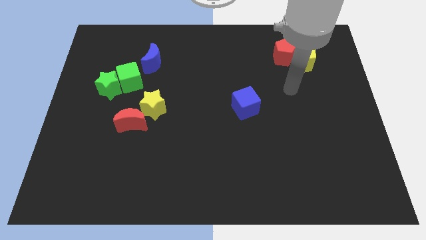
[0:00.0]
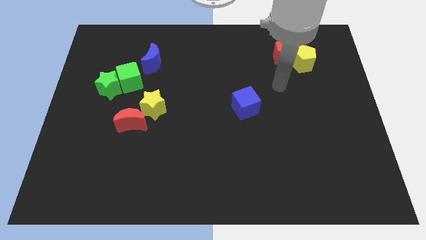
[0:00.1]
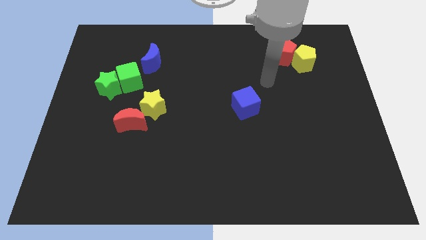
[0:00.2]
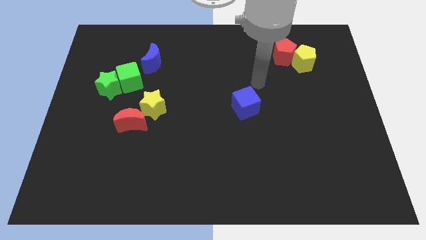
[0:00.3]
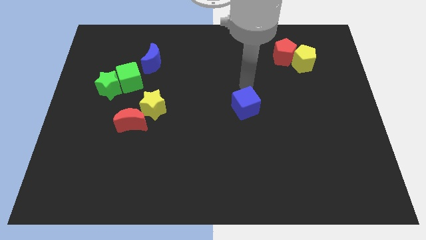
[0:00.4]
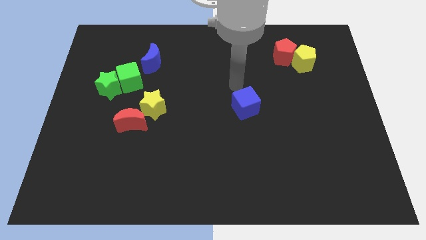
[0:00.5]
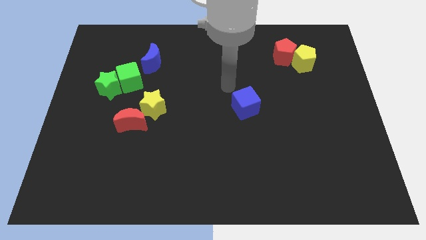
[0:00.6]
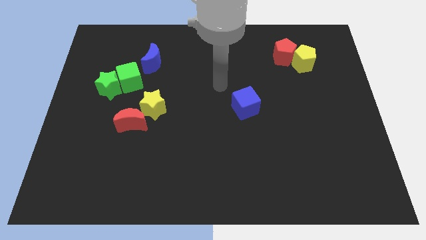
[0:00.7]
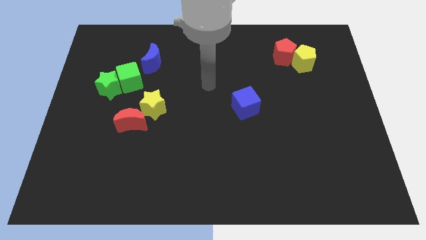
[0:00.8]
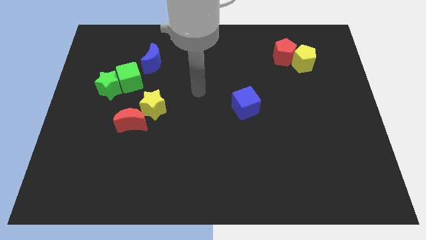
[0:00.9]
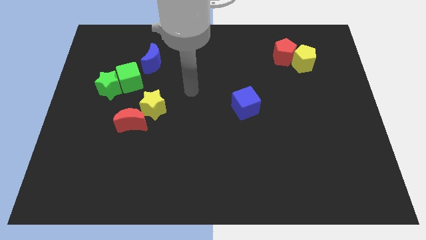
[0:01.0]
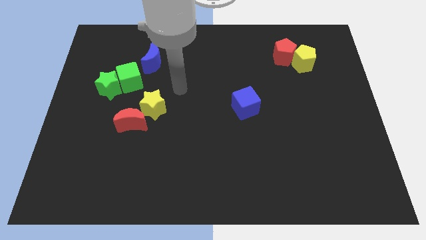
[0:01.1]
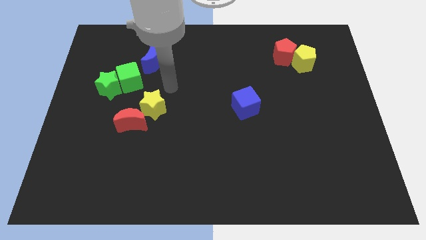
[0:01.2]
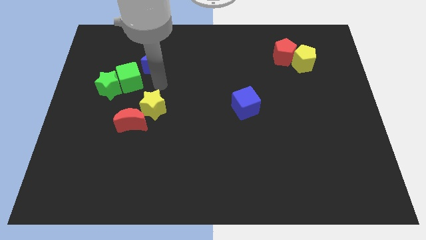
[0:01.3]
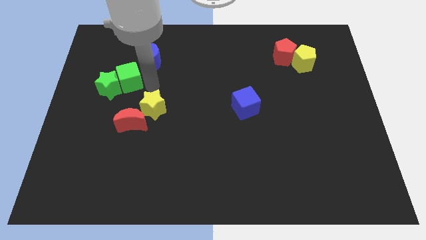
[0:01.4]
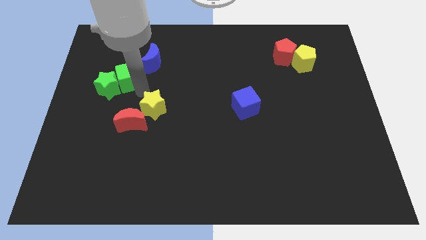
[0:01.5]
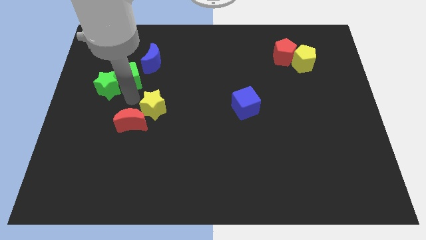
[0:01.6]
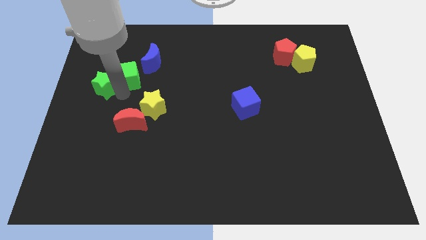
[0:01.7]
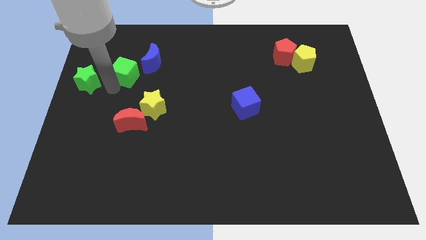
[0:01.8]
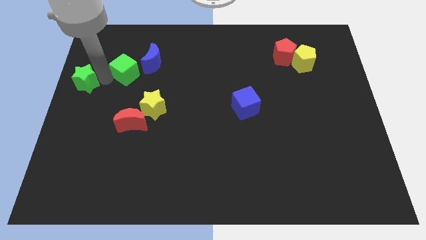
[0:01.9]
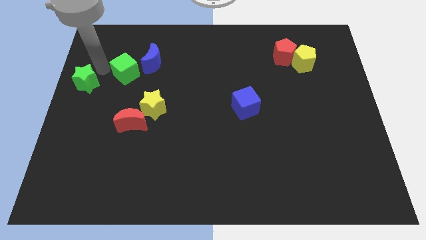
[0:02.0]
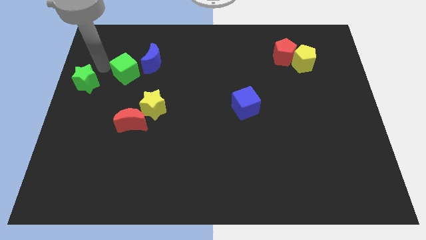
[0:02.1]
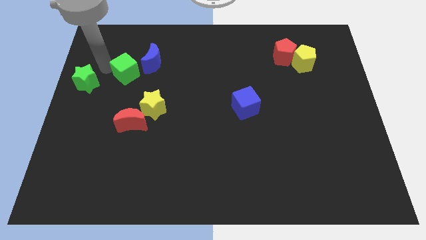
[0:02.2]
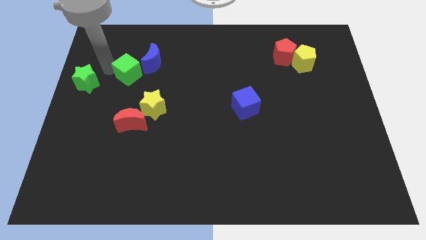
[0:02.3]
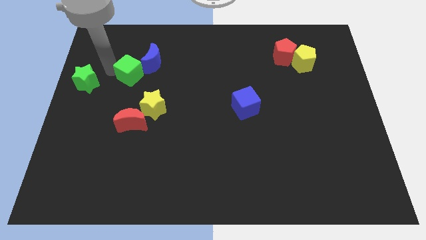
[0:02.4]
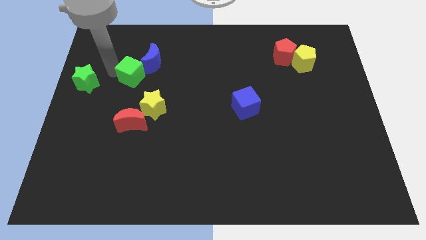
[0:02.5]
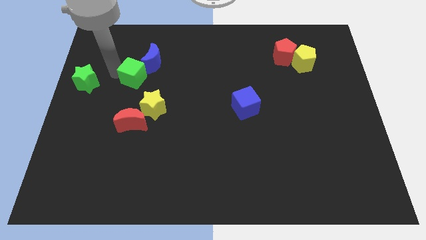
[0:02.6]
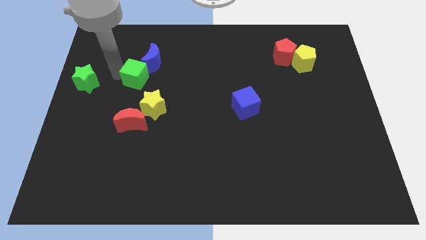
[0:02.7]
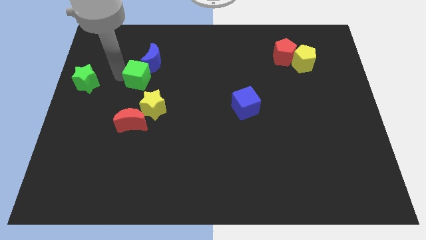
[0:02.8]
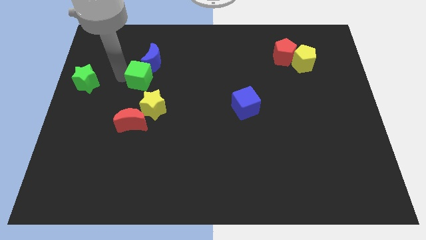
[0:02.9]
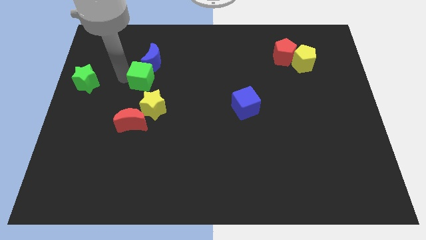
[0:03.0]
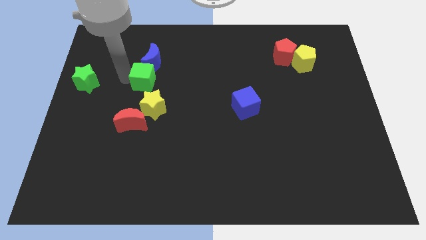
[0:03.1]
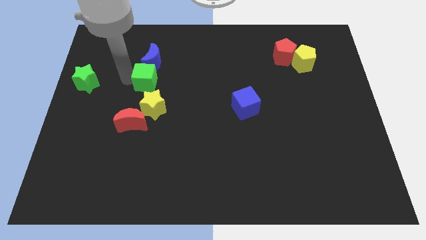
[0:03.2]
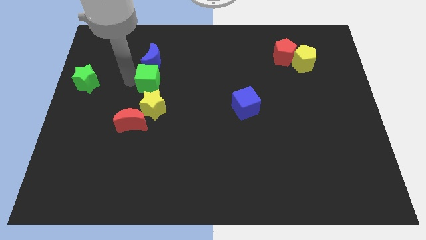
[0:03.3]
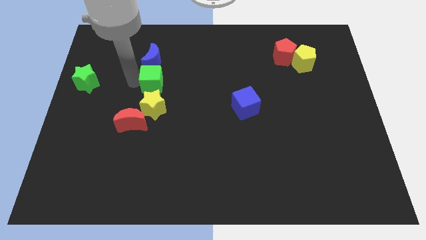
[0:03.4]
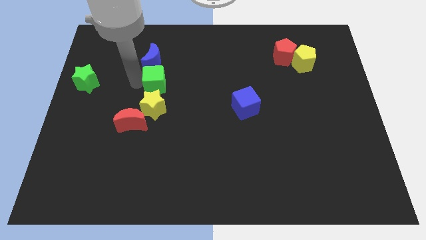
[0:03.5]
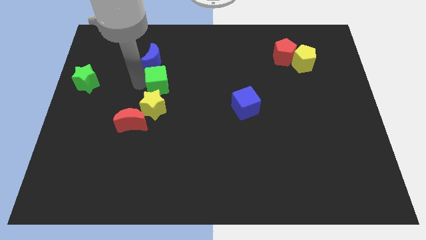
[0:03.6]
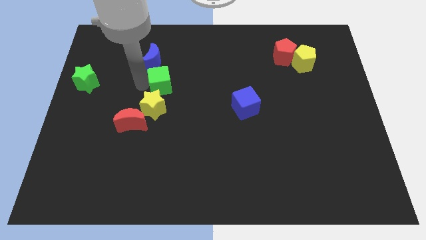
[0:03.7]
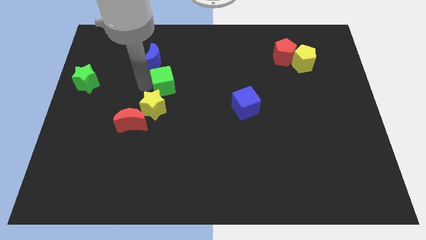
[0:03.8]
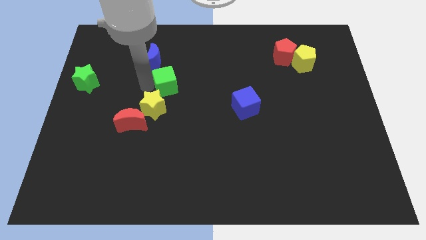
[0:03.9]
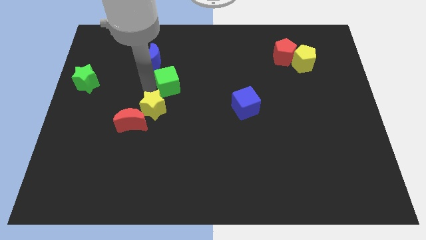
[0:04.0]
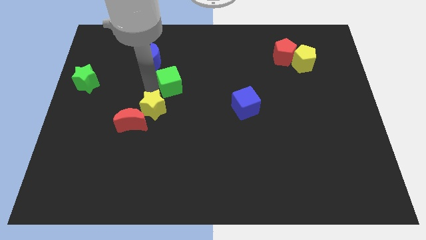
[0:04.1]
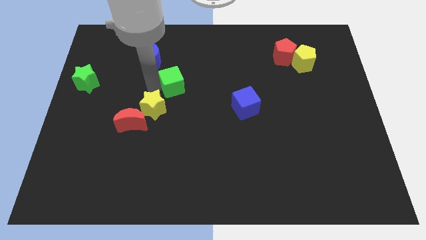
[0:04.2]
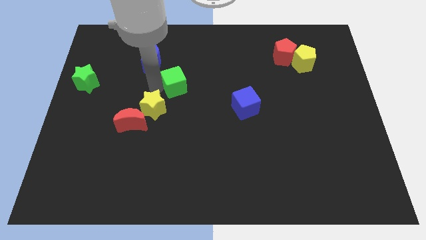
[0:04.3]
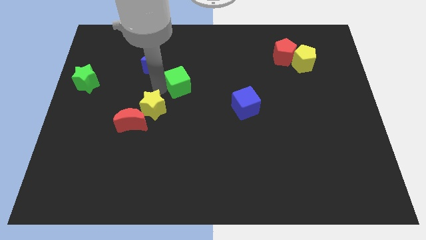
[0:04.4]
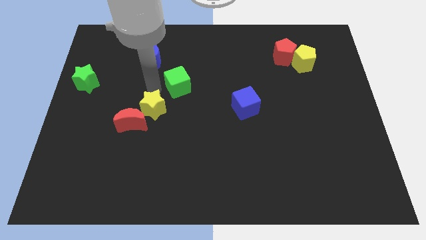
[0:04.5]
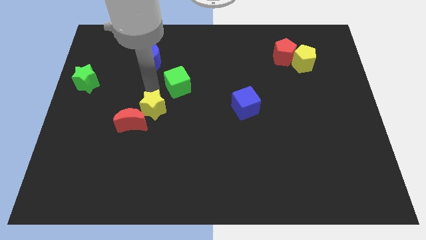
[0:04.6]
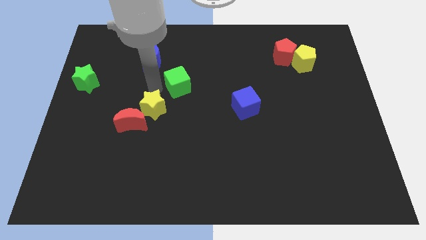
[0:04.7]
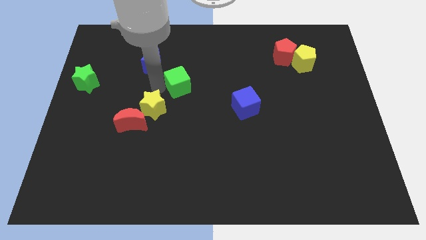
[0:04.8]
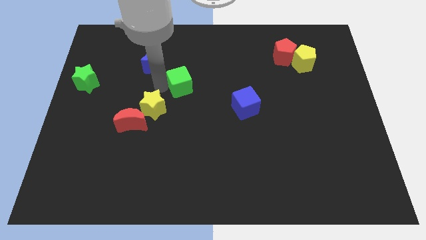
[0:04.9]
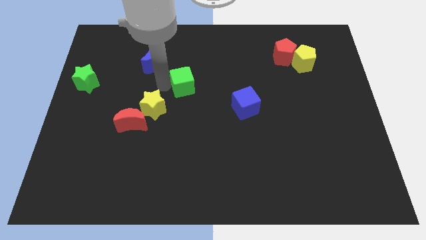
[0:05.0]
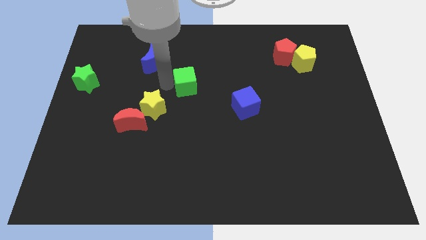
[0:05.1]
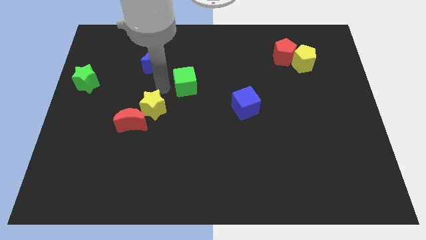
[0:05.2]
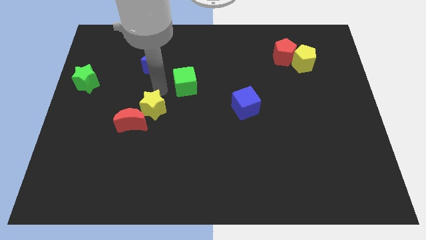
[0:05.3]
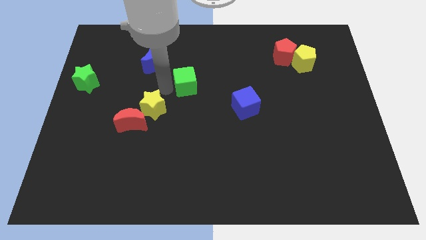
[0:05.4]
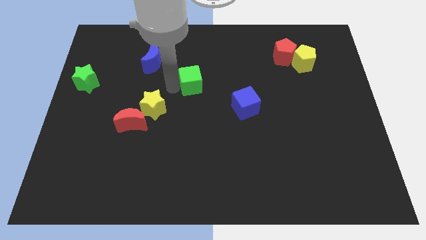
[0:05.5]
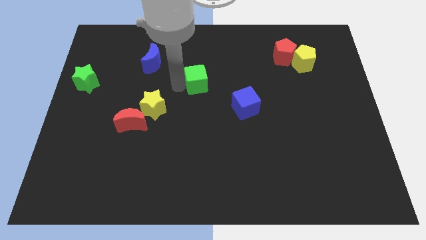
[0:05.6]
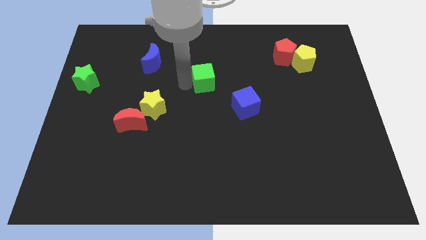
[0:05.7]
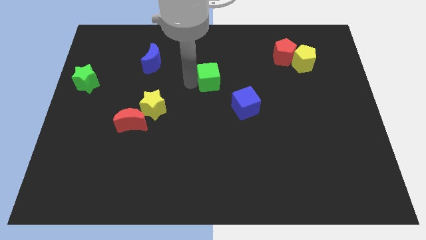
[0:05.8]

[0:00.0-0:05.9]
slide the green cube to the right

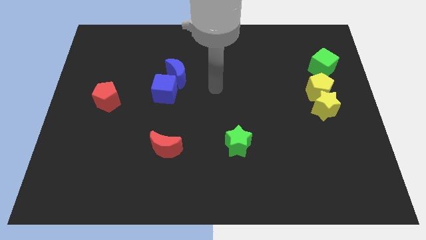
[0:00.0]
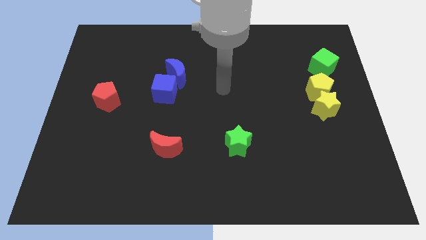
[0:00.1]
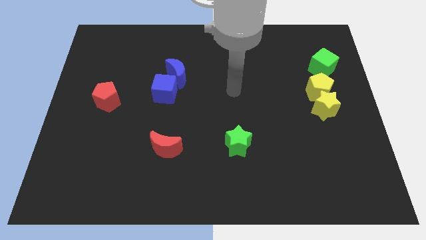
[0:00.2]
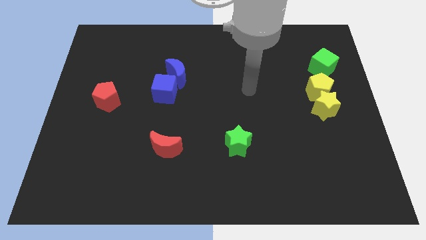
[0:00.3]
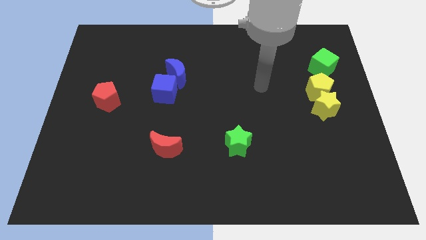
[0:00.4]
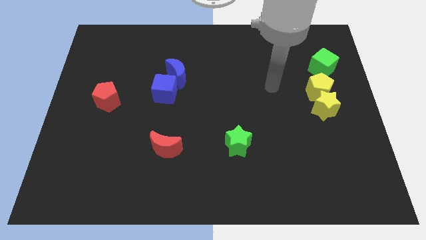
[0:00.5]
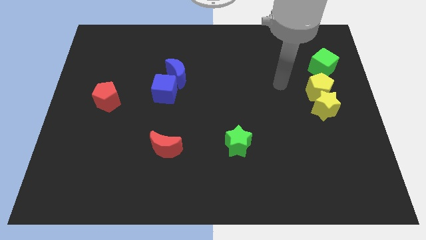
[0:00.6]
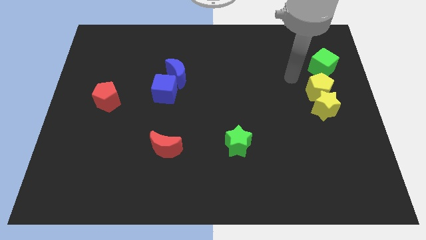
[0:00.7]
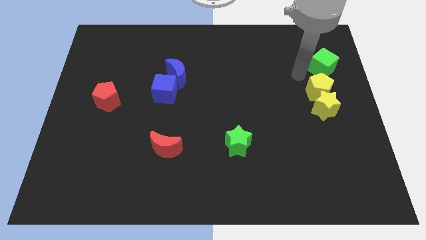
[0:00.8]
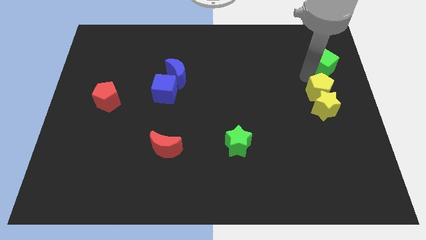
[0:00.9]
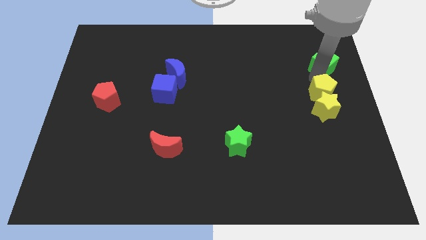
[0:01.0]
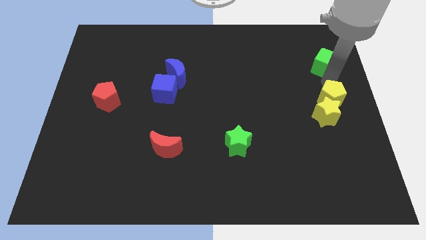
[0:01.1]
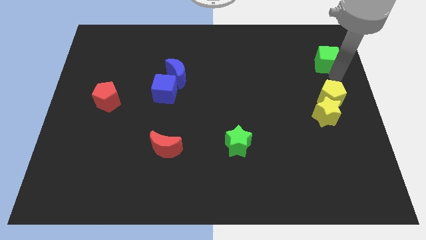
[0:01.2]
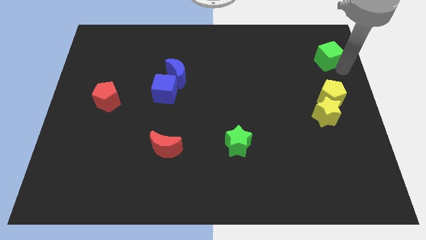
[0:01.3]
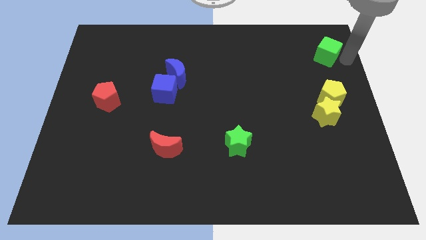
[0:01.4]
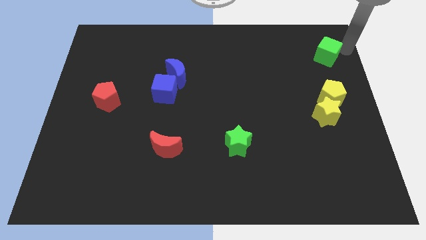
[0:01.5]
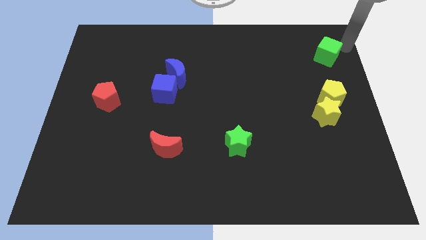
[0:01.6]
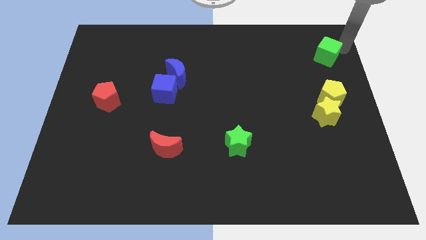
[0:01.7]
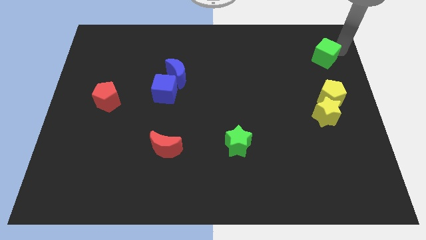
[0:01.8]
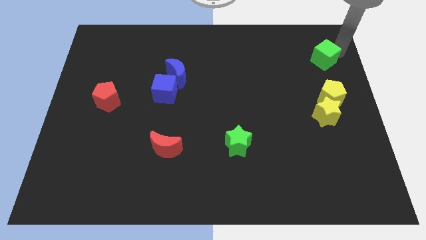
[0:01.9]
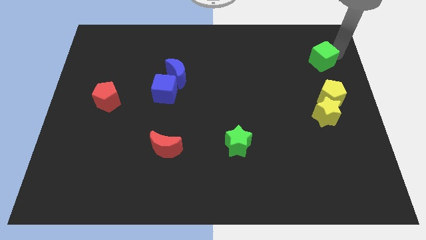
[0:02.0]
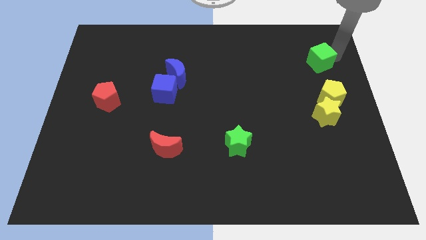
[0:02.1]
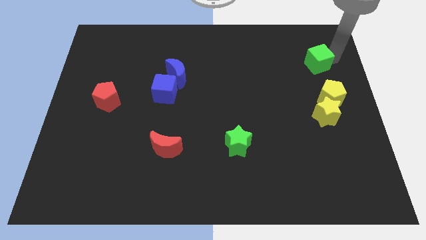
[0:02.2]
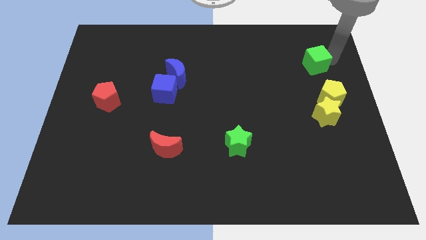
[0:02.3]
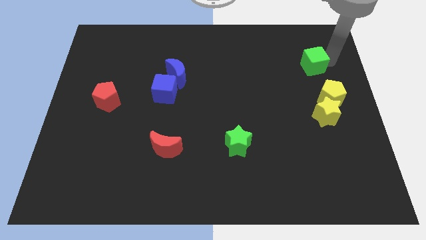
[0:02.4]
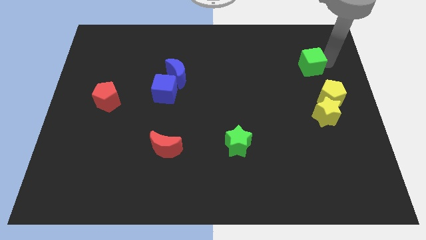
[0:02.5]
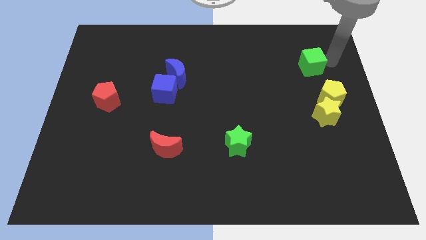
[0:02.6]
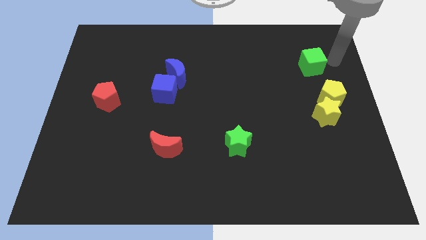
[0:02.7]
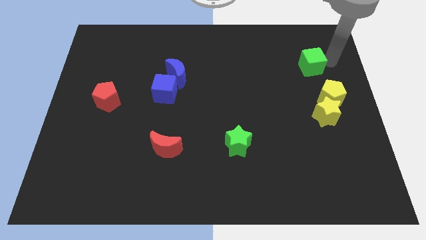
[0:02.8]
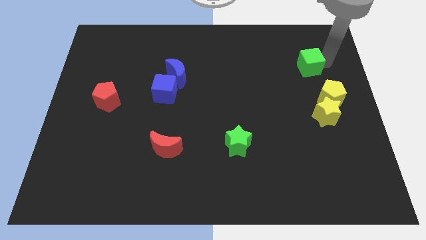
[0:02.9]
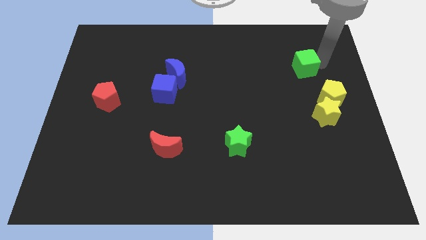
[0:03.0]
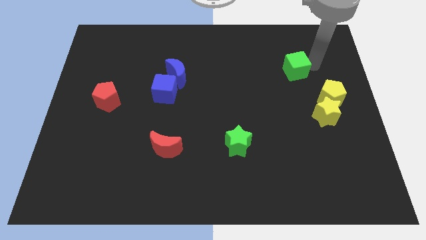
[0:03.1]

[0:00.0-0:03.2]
move the green cube left a little
